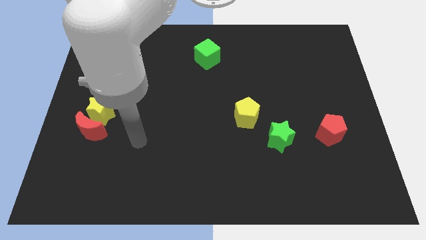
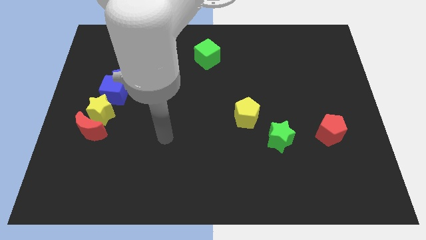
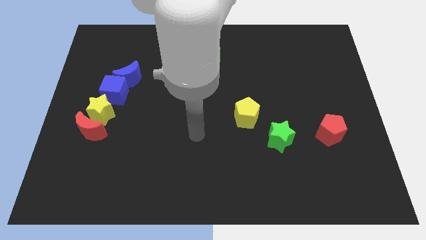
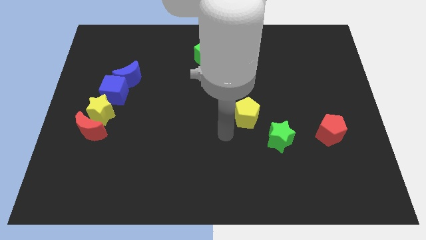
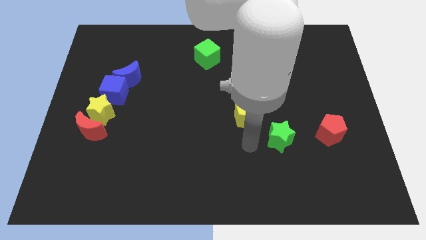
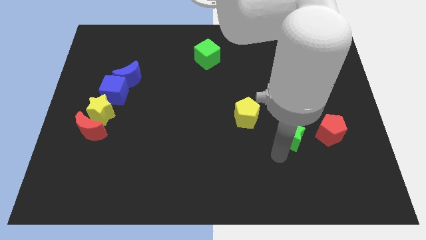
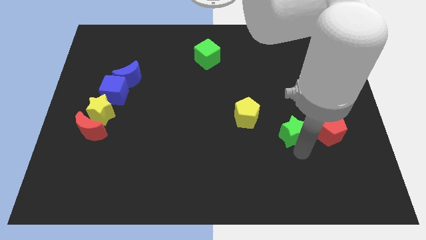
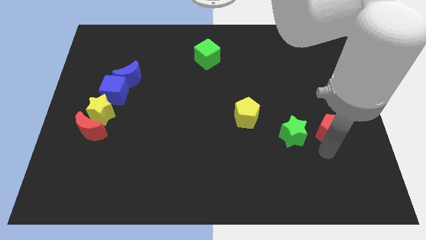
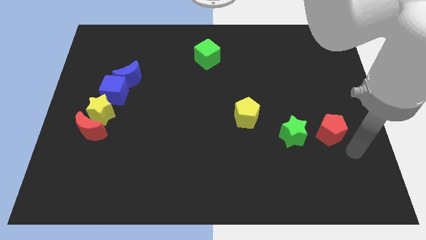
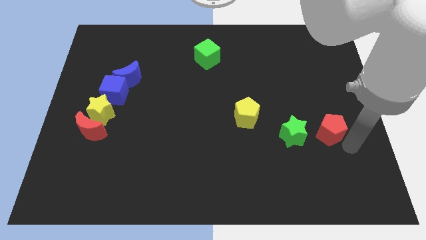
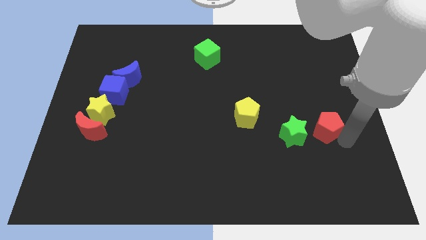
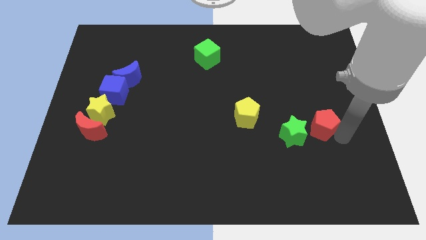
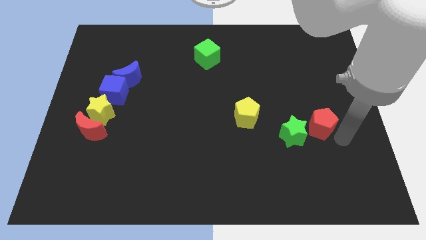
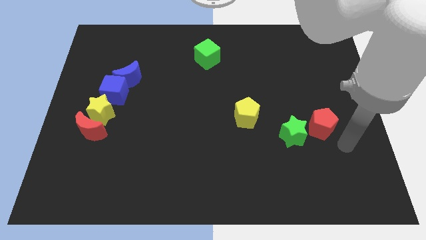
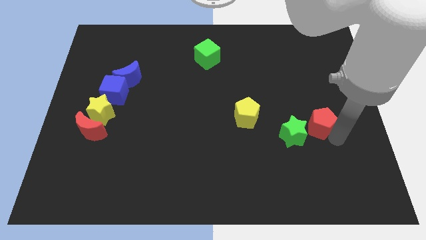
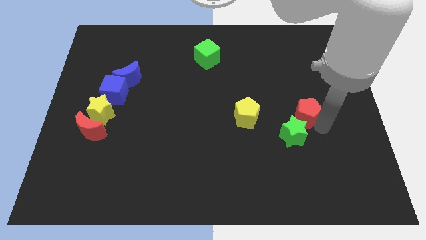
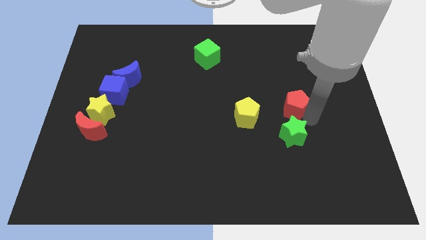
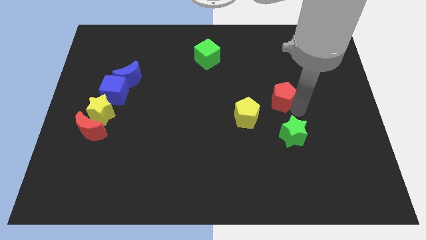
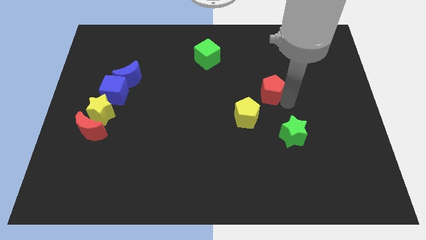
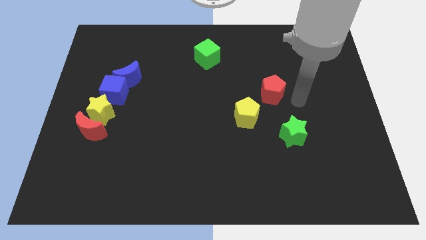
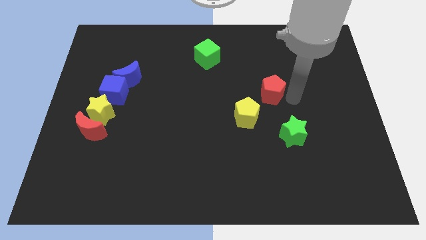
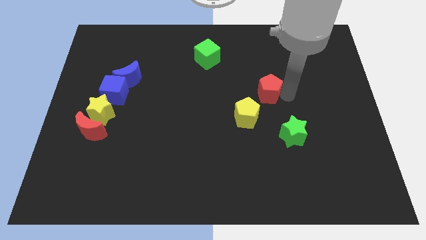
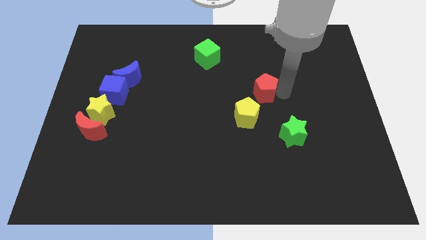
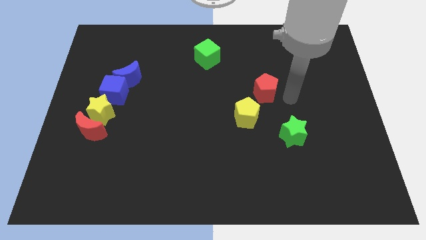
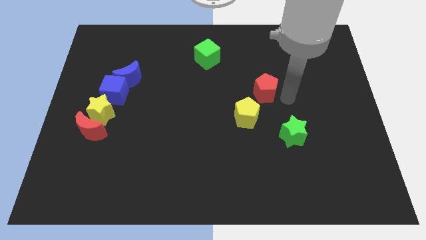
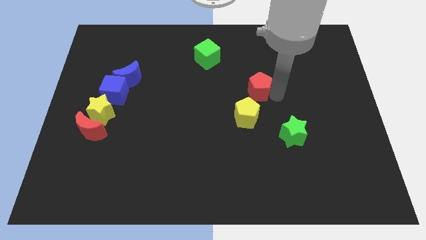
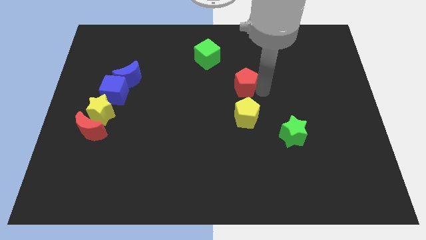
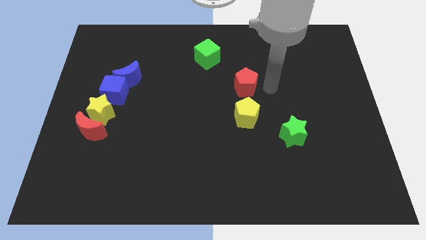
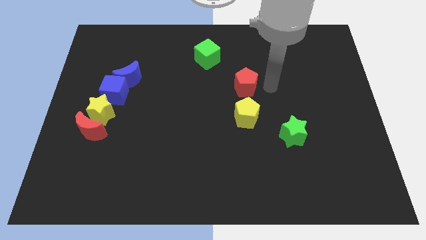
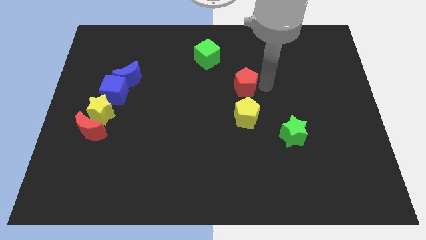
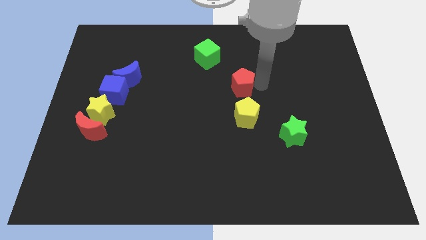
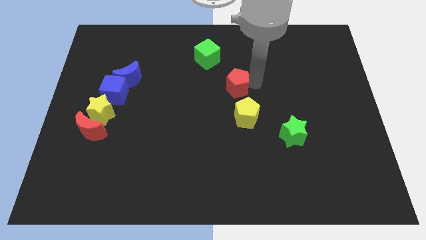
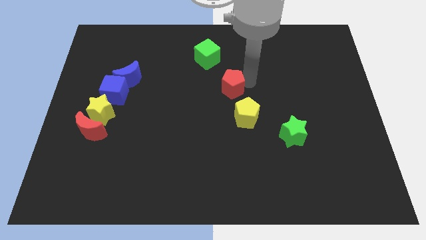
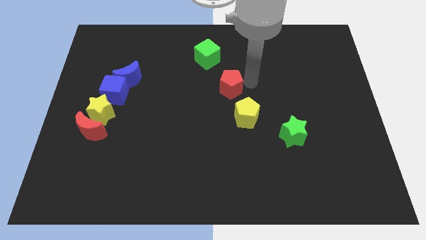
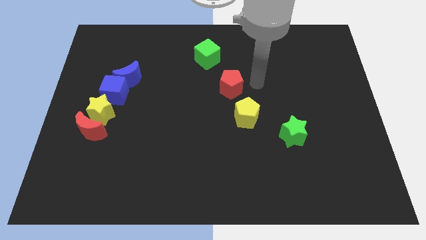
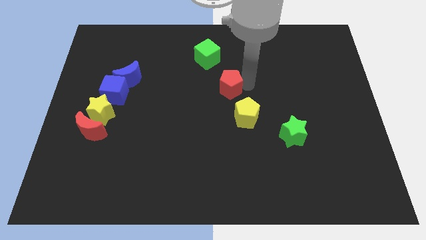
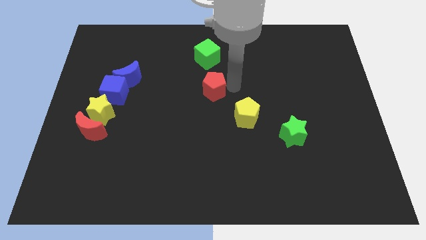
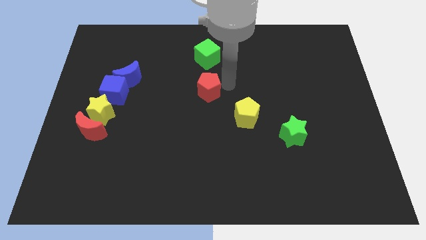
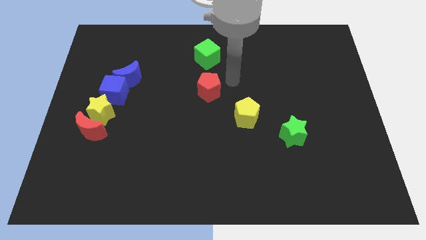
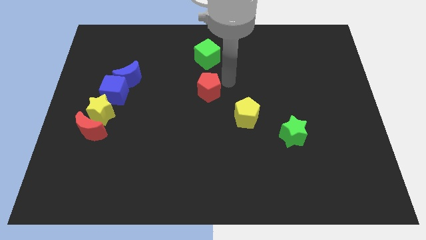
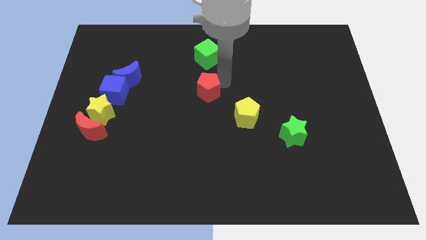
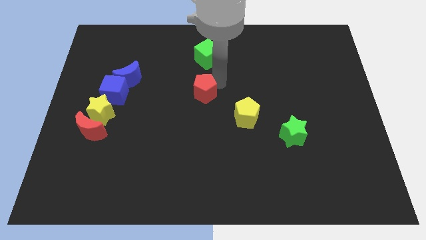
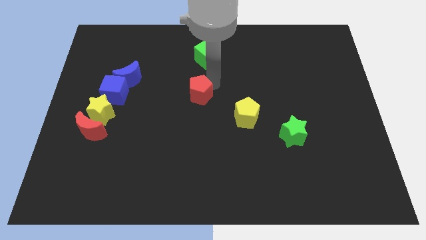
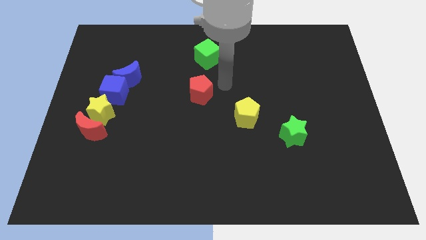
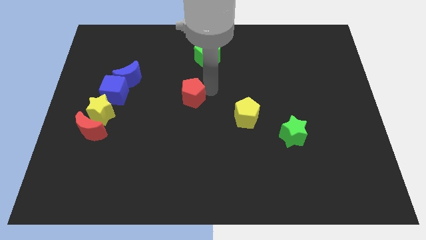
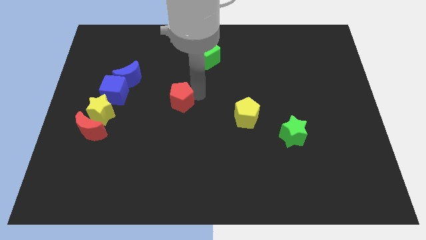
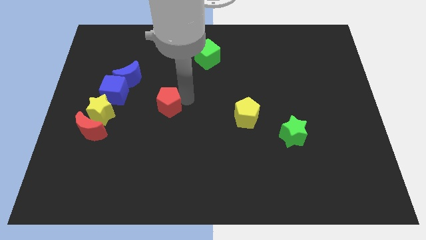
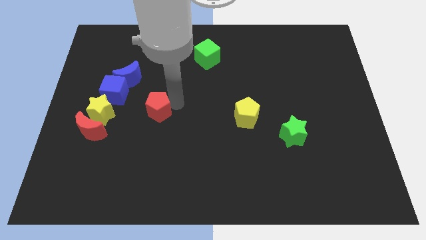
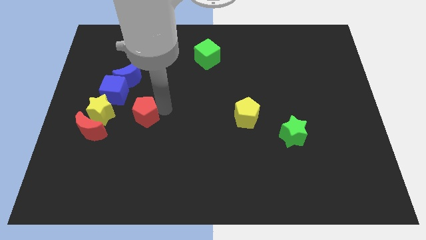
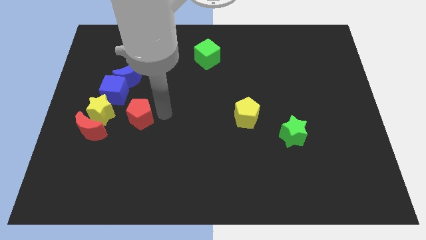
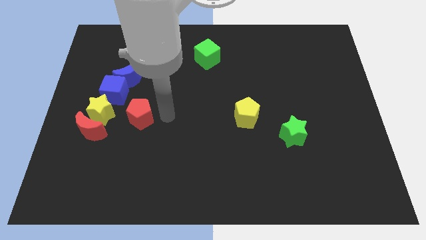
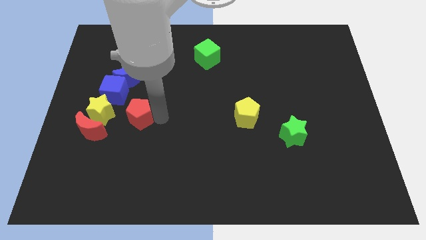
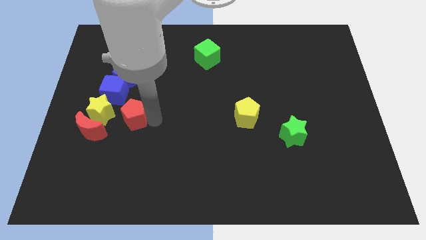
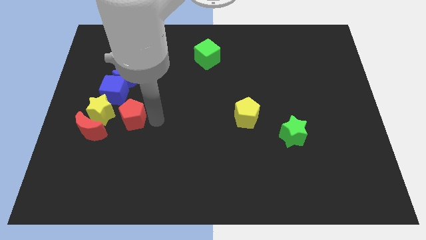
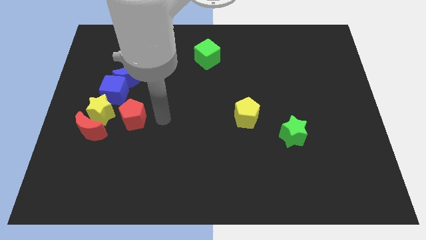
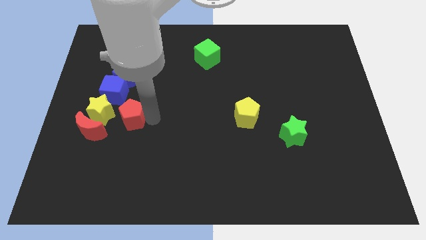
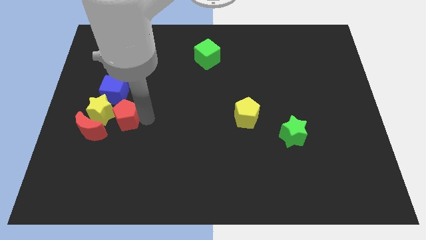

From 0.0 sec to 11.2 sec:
put the red pentagon towards the yellow star

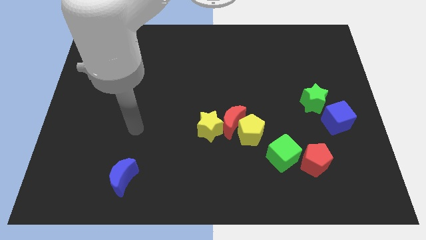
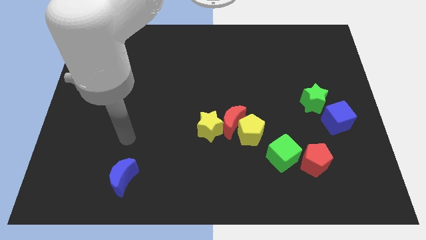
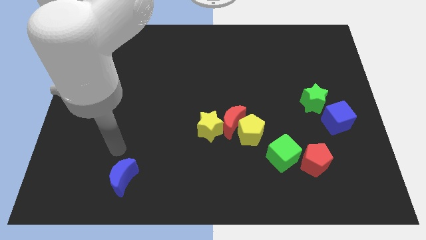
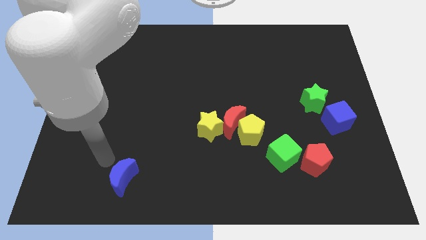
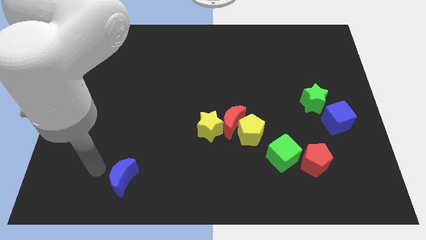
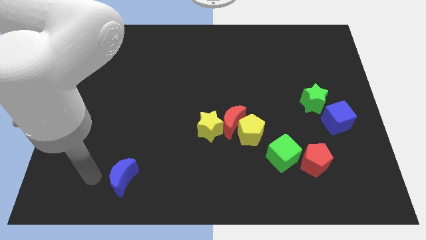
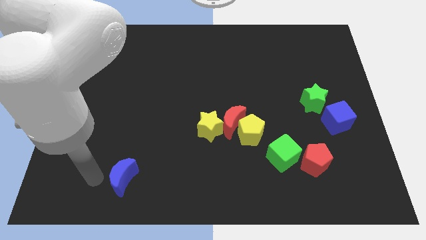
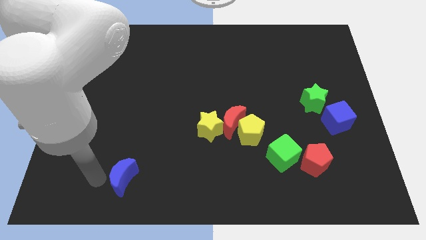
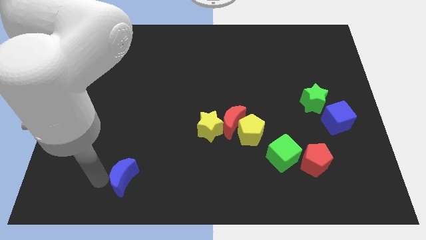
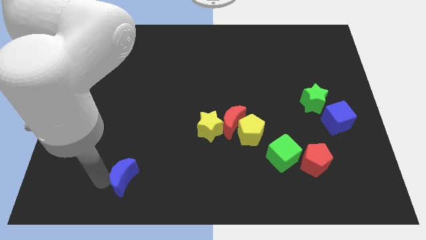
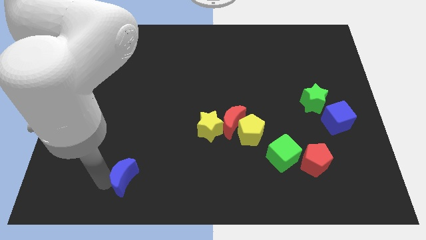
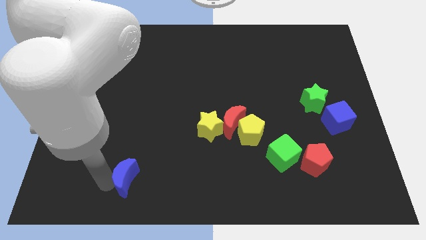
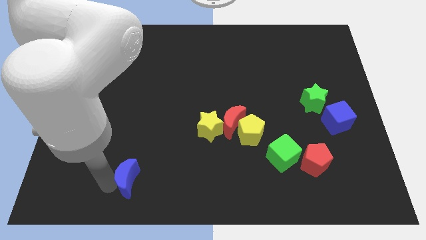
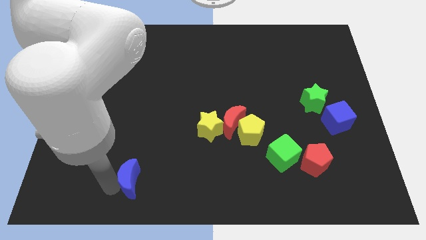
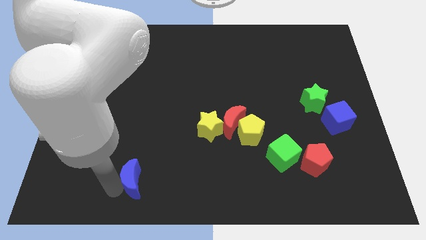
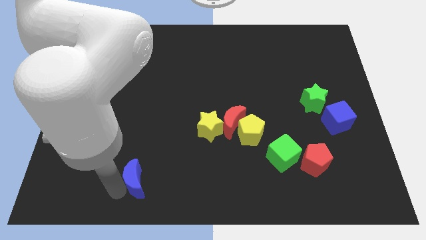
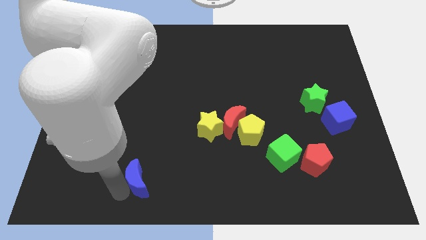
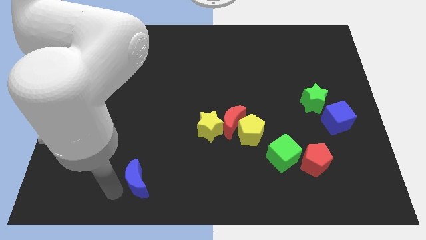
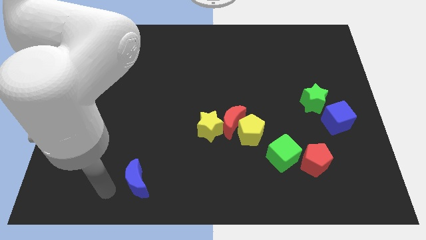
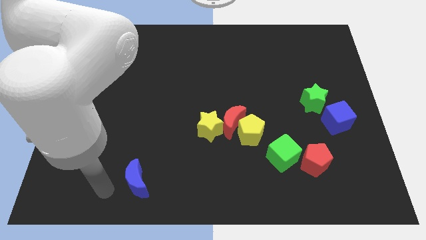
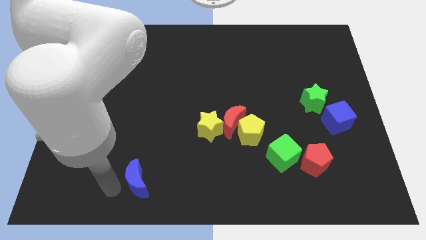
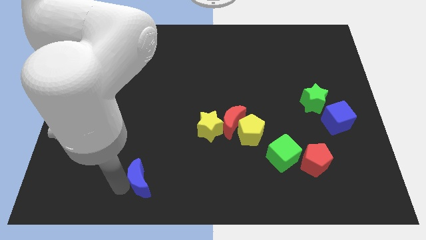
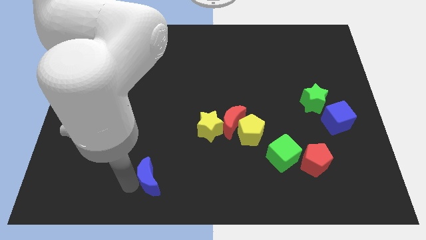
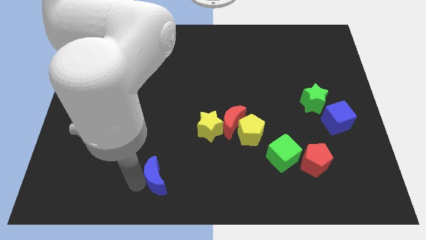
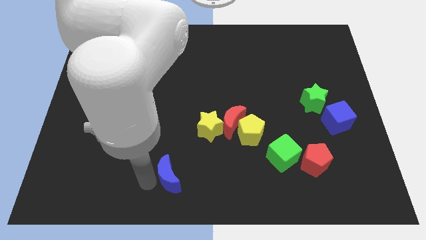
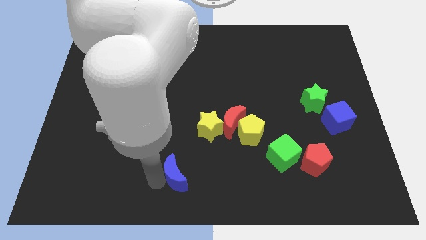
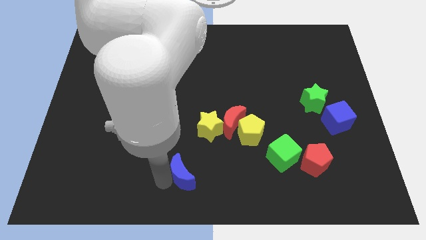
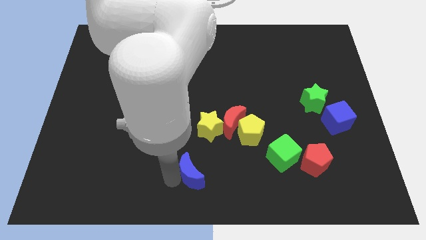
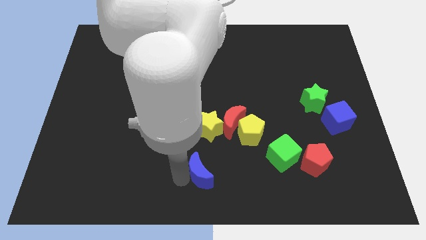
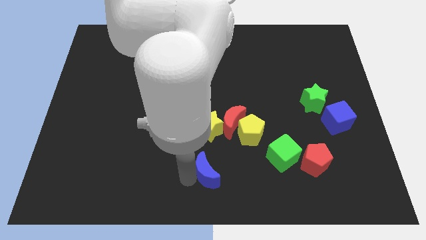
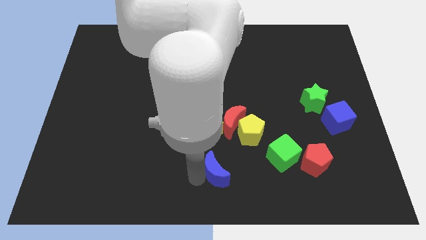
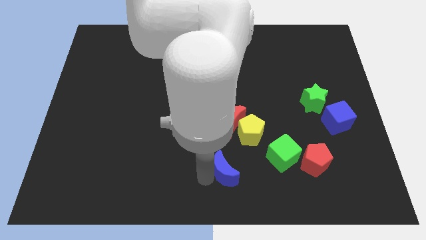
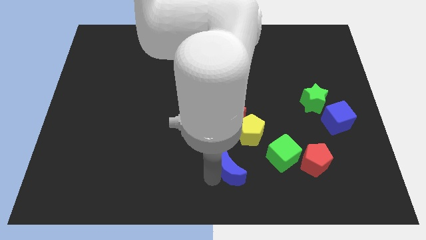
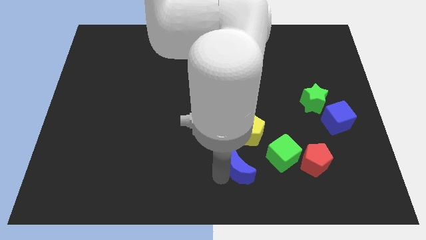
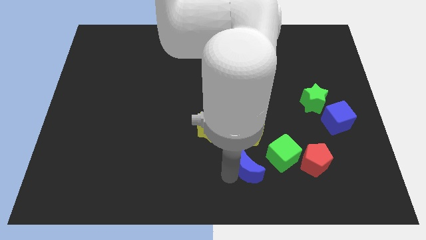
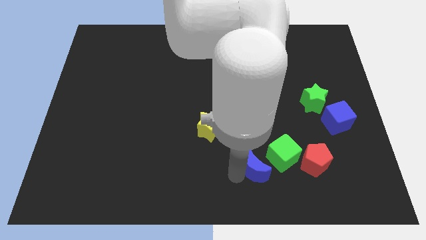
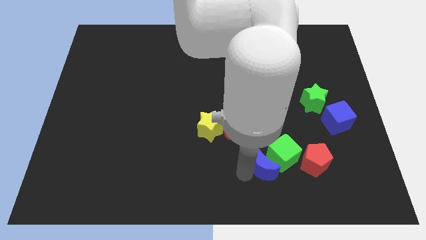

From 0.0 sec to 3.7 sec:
move the blue moon next to the green cube
